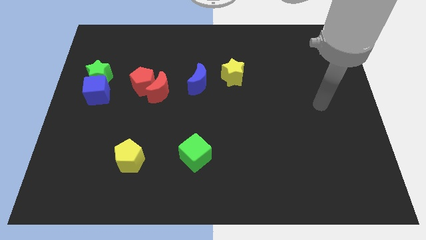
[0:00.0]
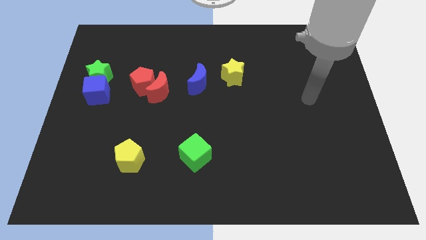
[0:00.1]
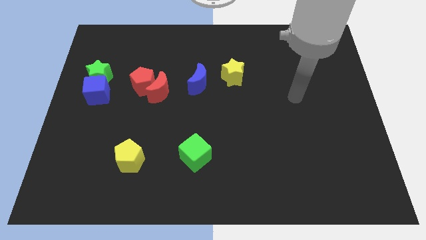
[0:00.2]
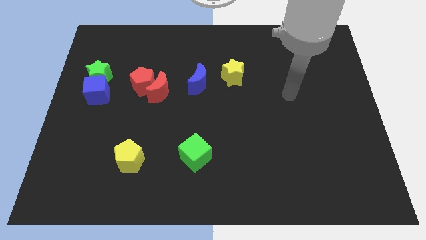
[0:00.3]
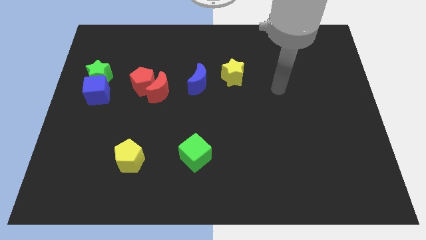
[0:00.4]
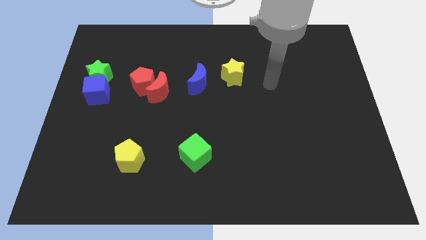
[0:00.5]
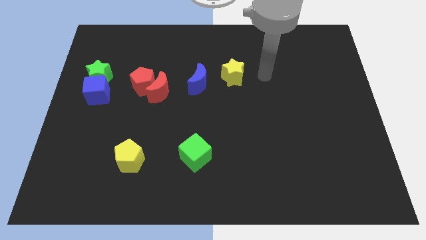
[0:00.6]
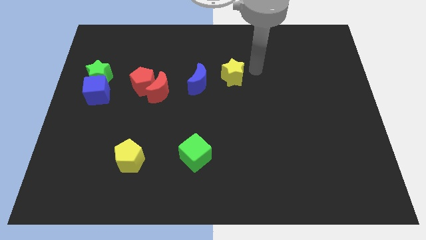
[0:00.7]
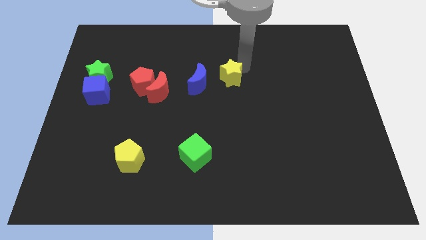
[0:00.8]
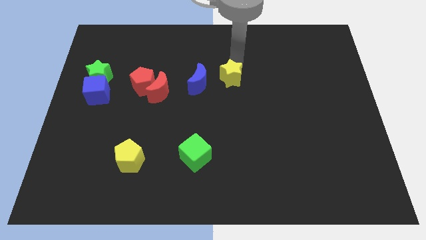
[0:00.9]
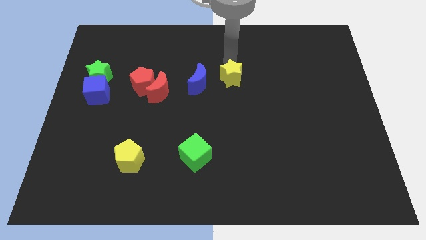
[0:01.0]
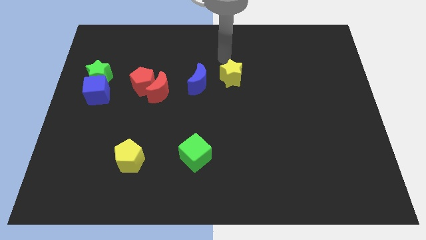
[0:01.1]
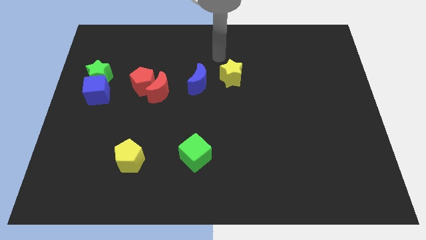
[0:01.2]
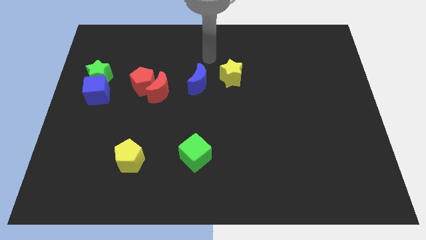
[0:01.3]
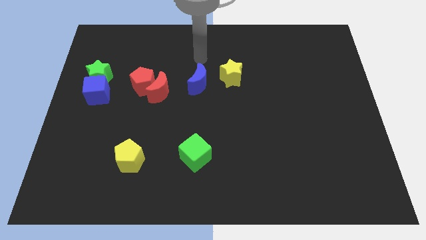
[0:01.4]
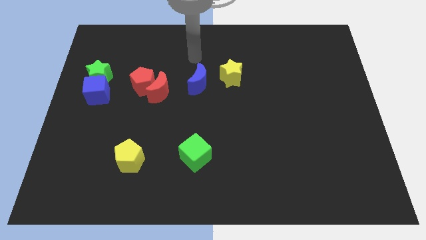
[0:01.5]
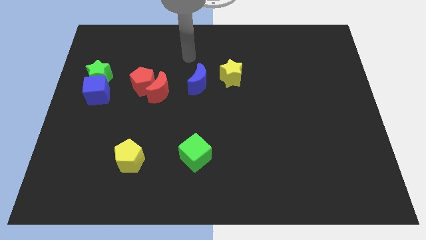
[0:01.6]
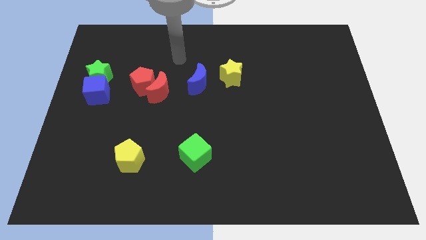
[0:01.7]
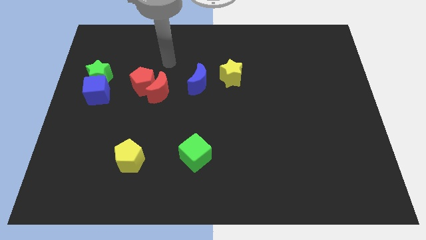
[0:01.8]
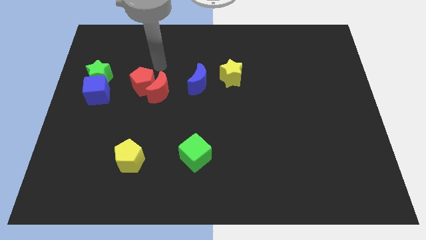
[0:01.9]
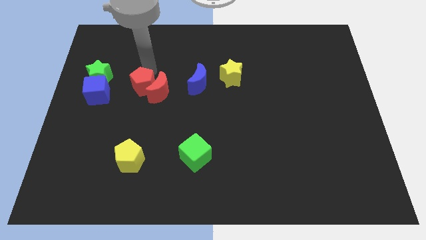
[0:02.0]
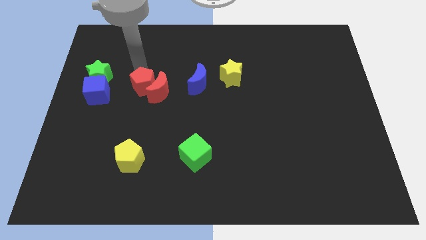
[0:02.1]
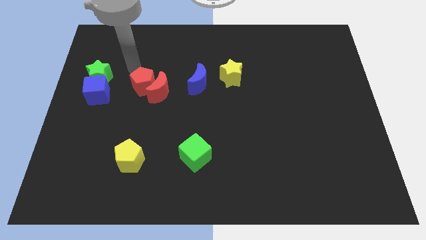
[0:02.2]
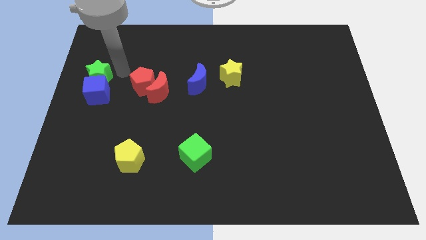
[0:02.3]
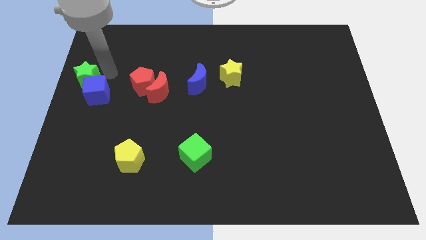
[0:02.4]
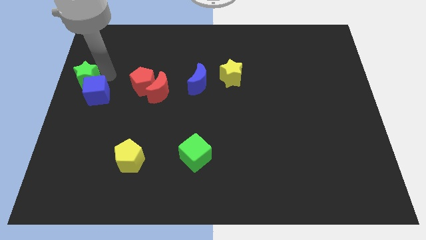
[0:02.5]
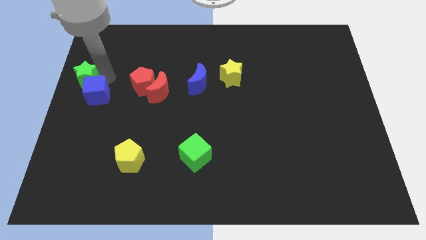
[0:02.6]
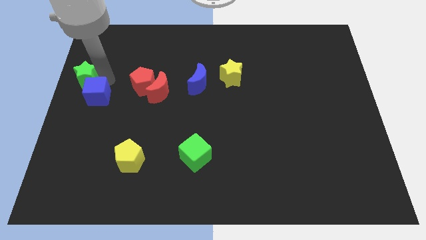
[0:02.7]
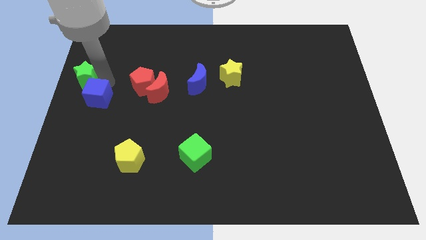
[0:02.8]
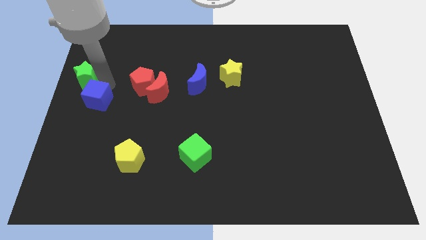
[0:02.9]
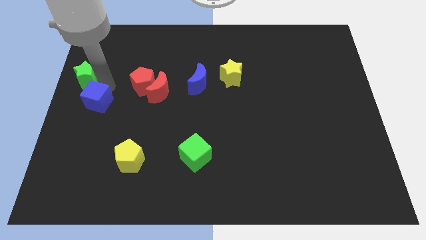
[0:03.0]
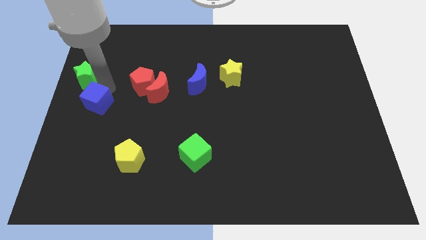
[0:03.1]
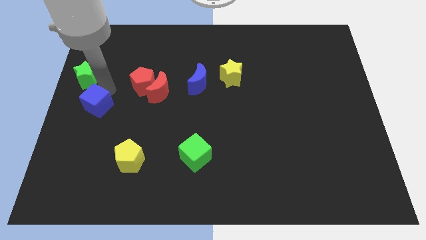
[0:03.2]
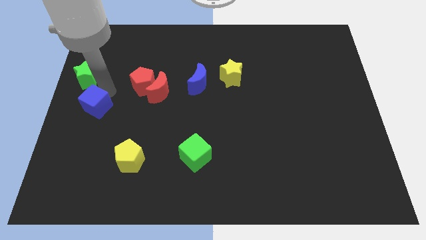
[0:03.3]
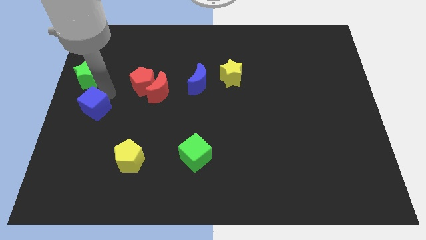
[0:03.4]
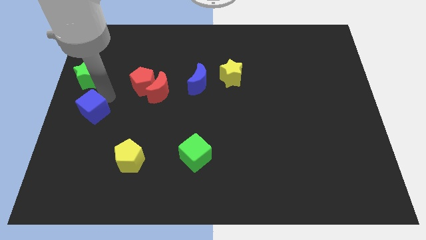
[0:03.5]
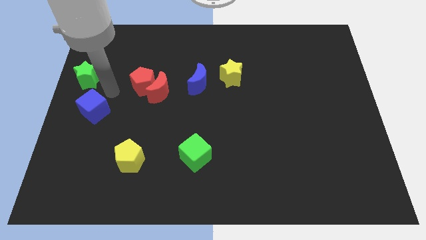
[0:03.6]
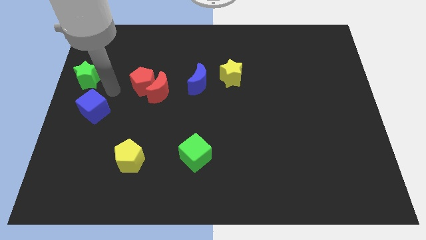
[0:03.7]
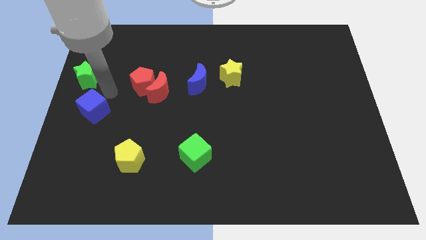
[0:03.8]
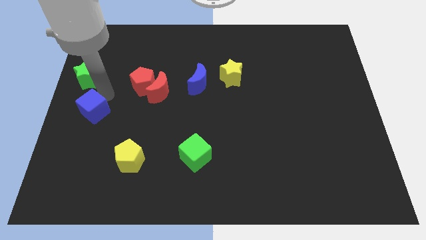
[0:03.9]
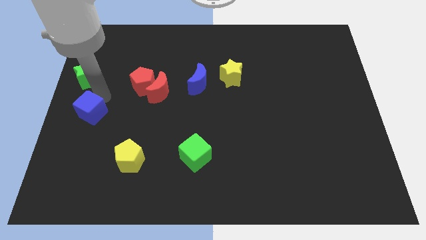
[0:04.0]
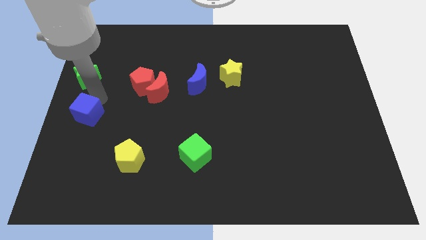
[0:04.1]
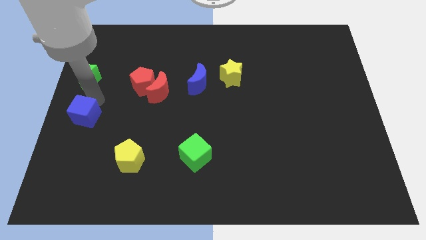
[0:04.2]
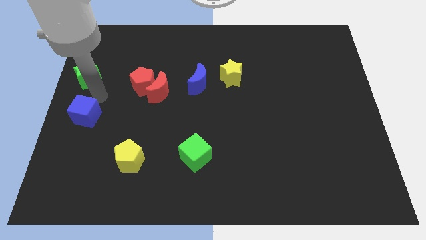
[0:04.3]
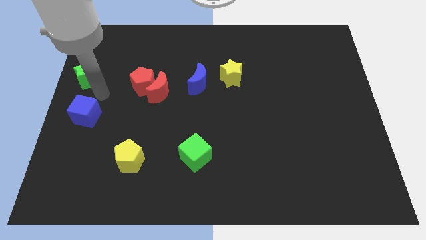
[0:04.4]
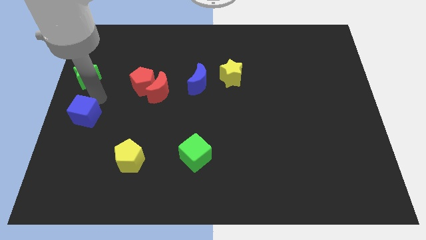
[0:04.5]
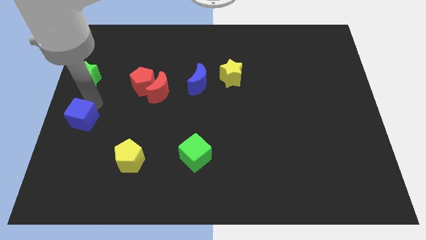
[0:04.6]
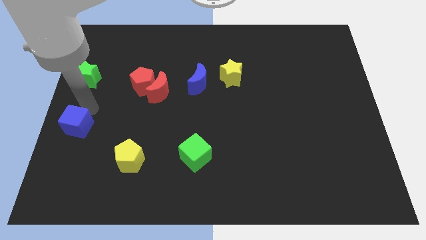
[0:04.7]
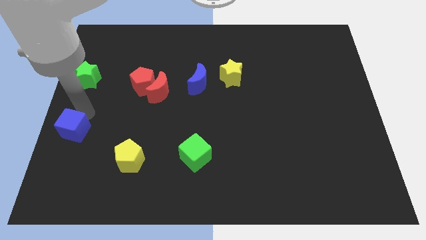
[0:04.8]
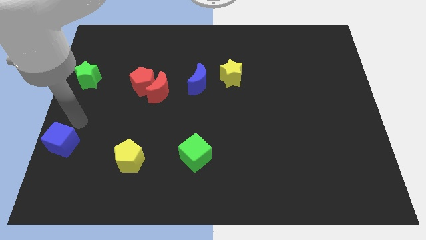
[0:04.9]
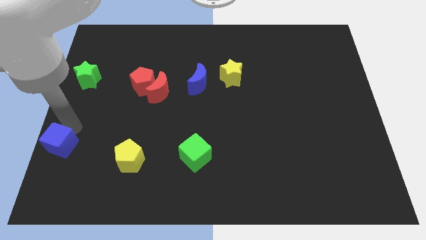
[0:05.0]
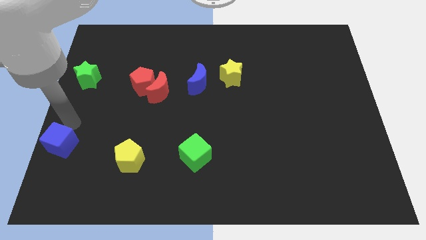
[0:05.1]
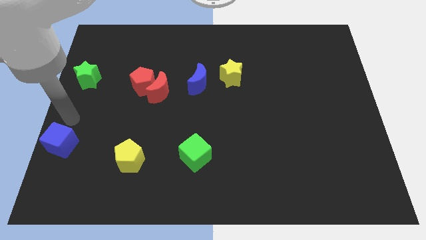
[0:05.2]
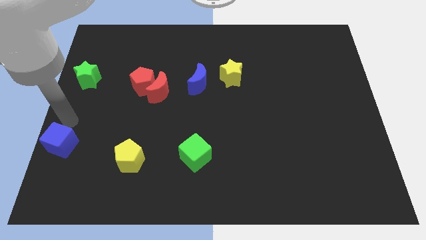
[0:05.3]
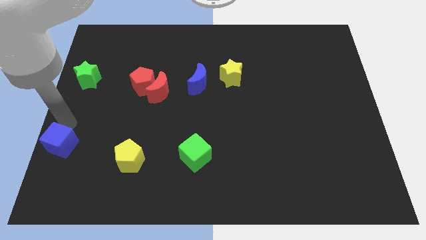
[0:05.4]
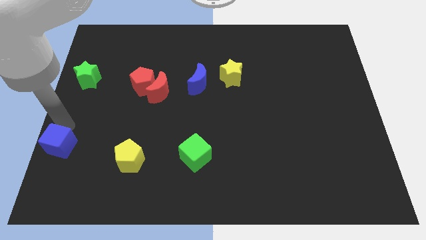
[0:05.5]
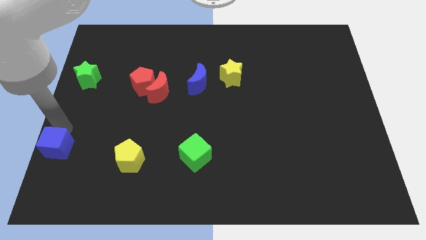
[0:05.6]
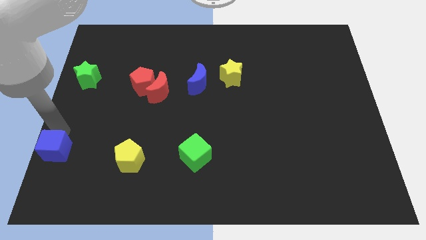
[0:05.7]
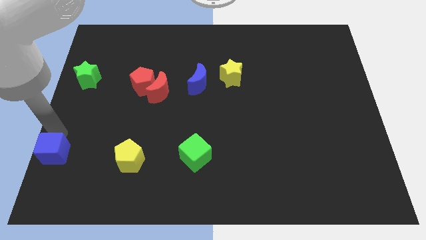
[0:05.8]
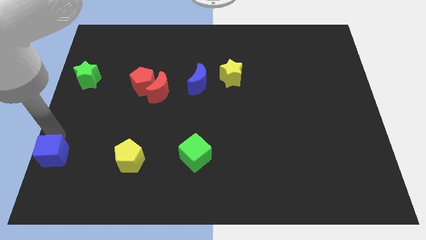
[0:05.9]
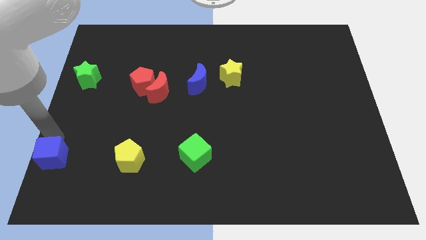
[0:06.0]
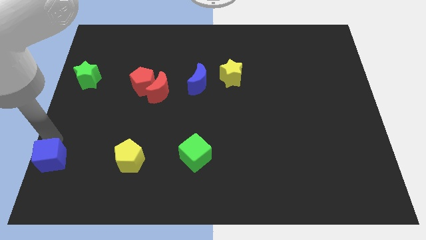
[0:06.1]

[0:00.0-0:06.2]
put the blue cube to the lower left corner
